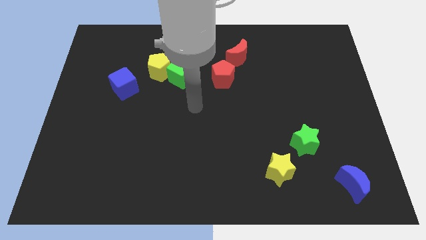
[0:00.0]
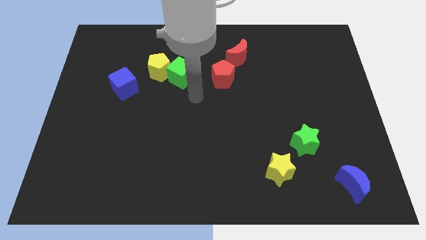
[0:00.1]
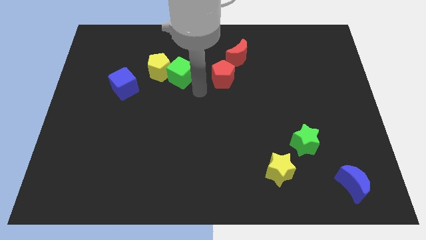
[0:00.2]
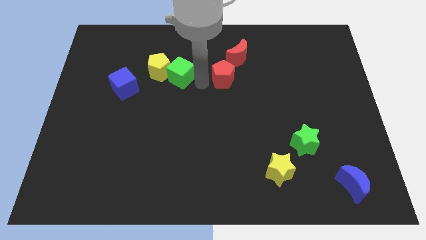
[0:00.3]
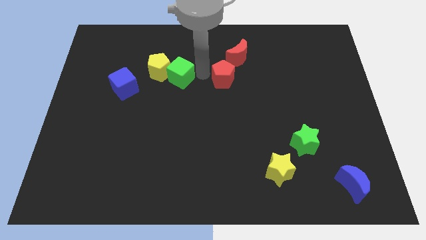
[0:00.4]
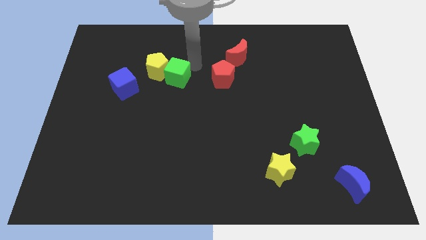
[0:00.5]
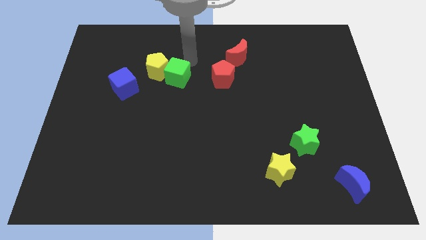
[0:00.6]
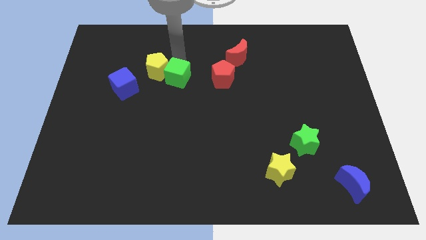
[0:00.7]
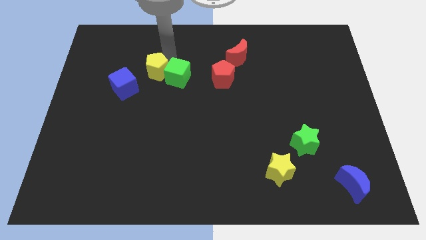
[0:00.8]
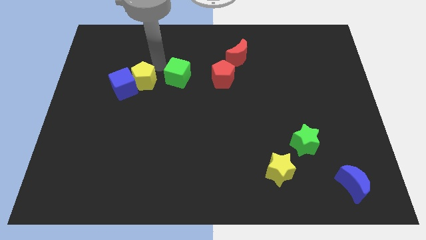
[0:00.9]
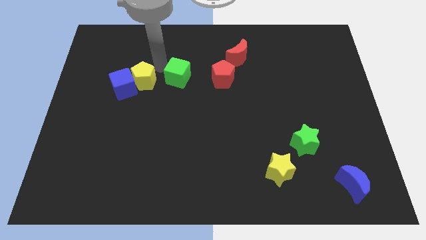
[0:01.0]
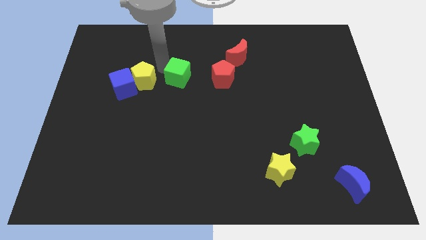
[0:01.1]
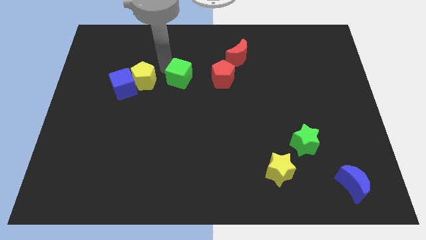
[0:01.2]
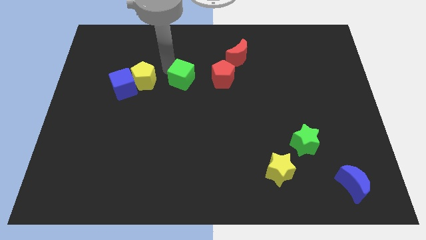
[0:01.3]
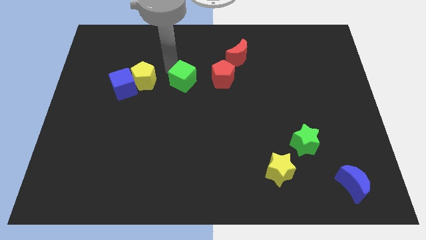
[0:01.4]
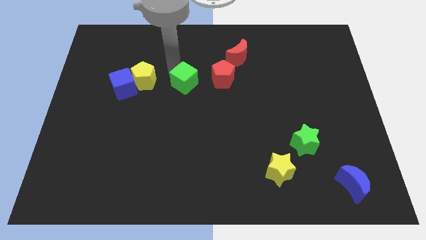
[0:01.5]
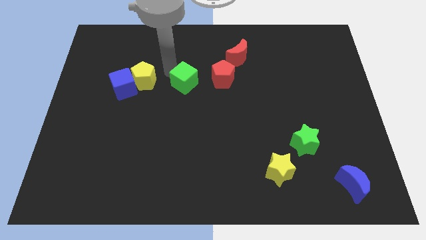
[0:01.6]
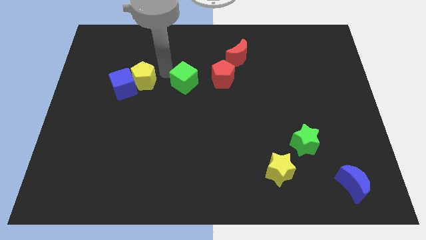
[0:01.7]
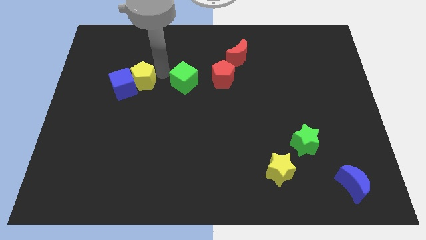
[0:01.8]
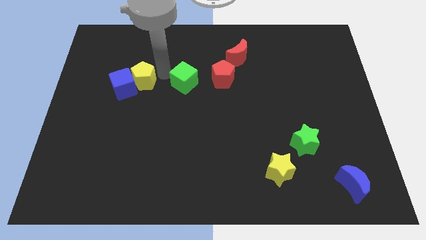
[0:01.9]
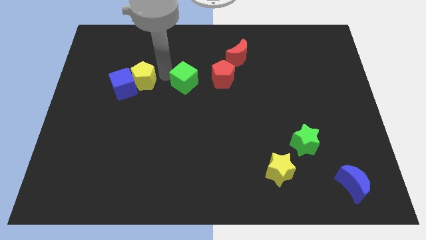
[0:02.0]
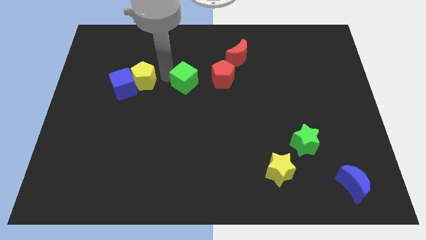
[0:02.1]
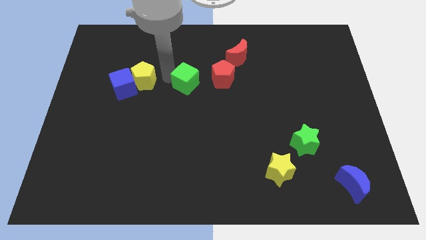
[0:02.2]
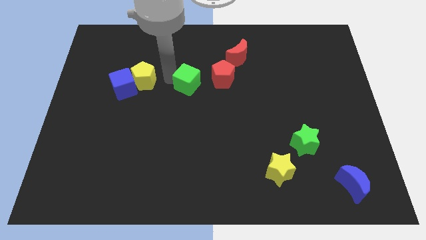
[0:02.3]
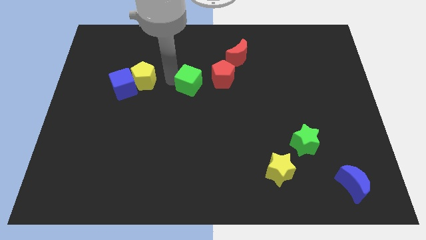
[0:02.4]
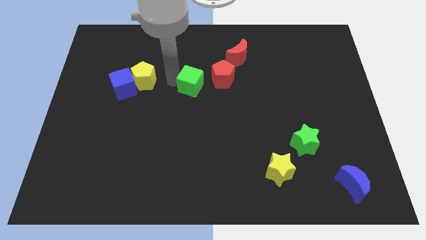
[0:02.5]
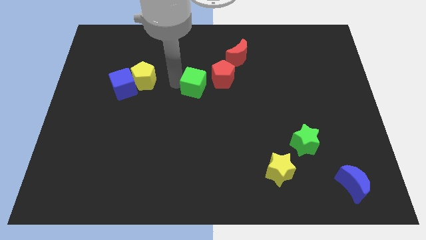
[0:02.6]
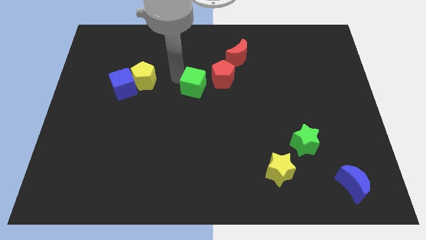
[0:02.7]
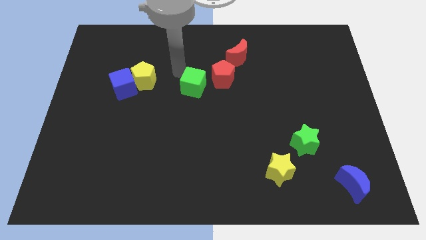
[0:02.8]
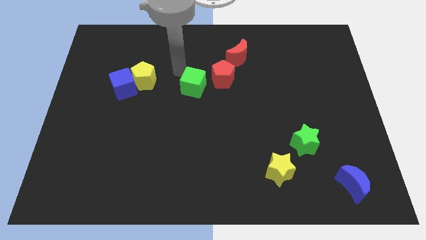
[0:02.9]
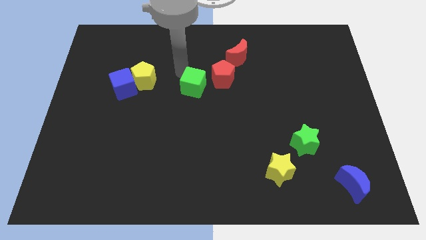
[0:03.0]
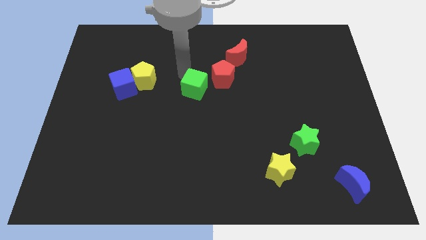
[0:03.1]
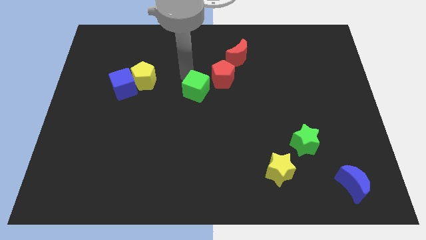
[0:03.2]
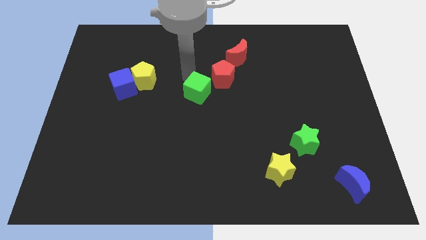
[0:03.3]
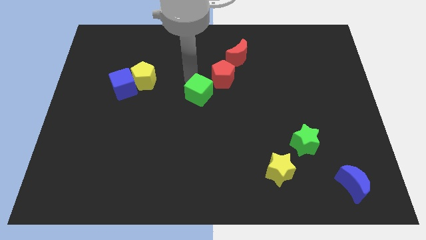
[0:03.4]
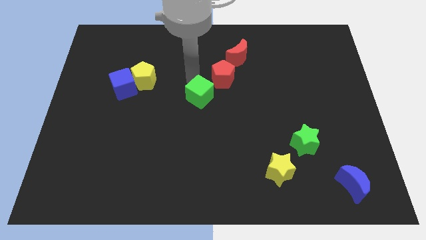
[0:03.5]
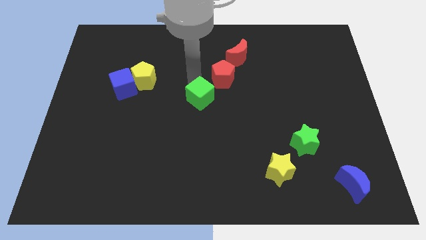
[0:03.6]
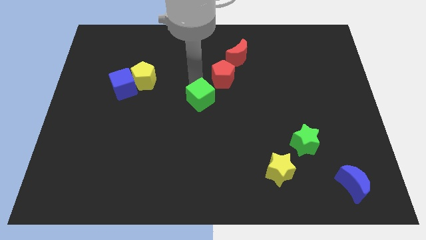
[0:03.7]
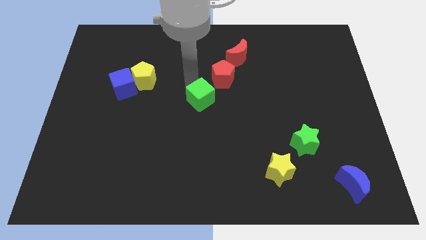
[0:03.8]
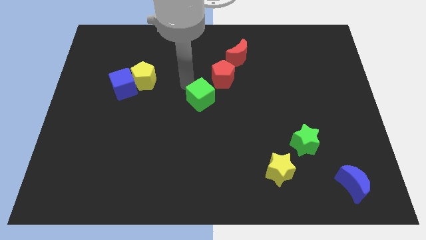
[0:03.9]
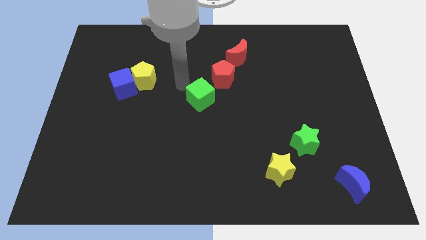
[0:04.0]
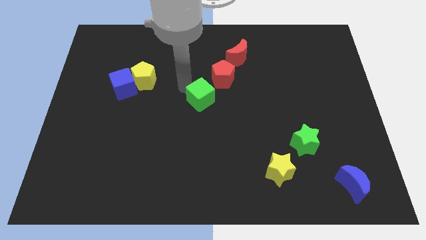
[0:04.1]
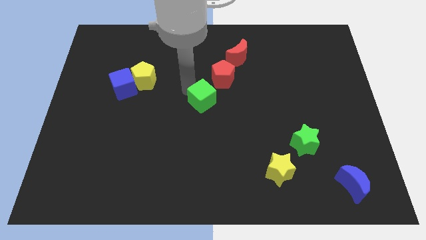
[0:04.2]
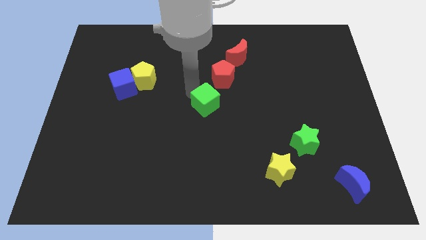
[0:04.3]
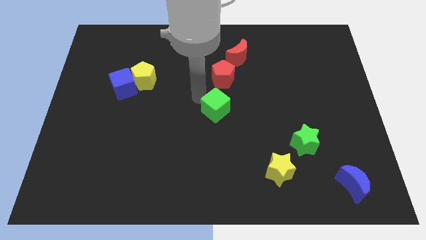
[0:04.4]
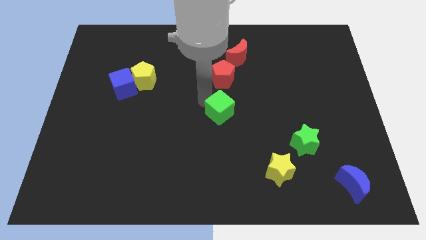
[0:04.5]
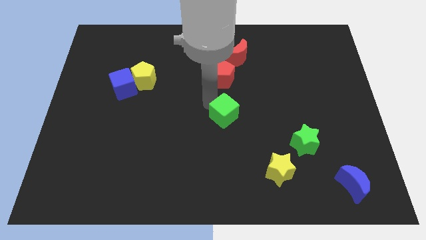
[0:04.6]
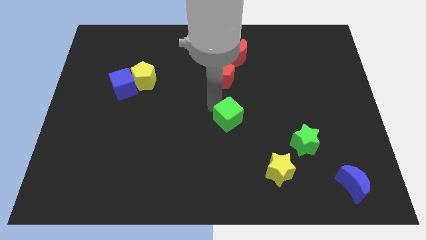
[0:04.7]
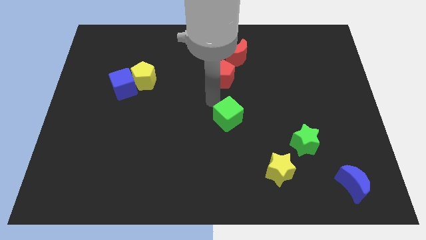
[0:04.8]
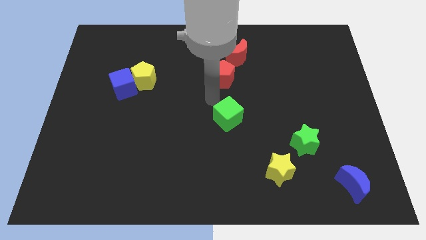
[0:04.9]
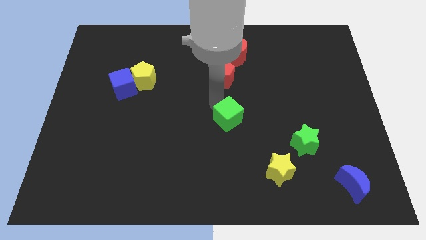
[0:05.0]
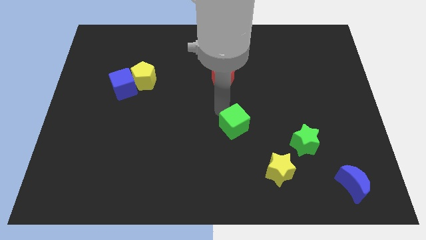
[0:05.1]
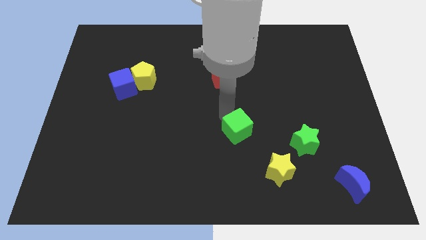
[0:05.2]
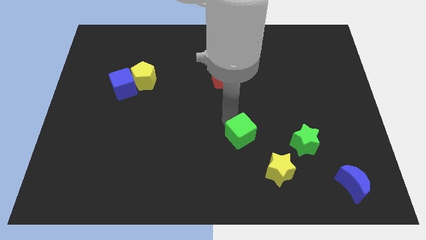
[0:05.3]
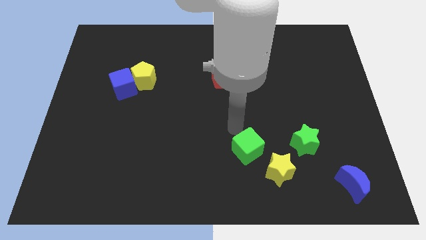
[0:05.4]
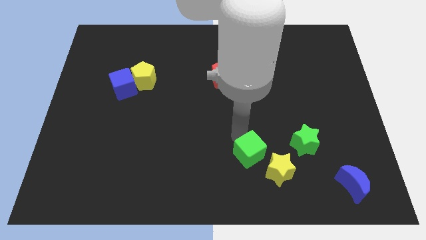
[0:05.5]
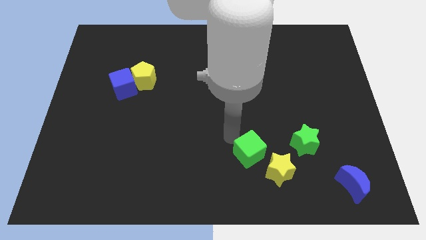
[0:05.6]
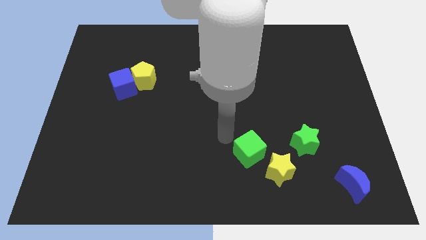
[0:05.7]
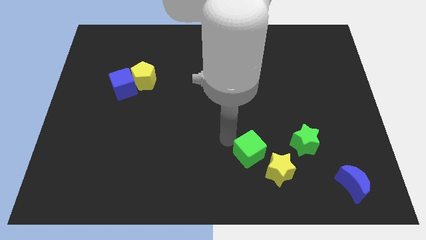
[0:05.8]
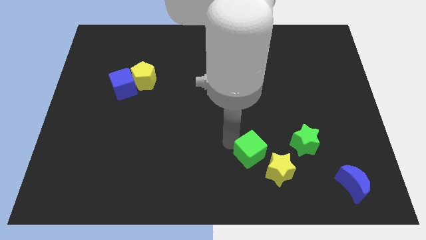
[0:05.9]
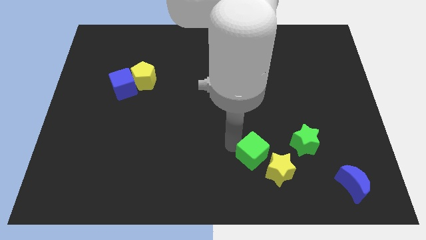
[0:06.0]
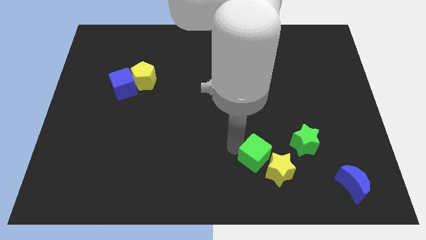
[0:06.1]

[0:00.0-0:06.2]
push the green cube towards the yellow star

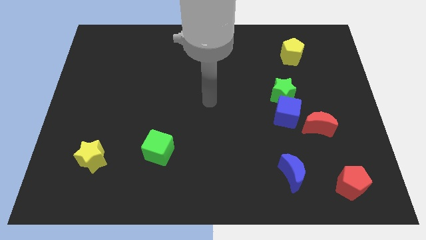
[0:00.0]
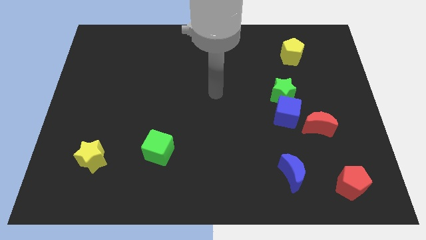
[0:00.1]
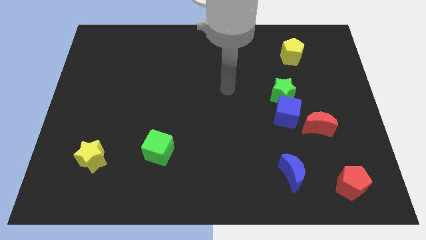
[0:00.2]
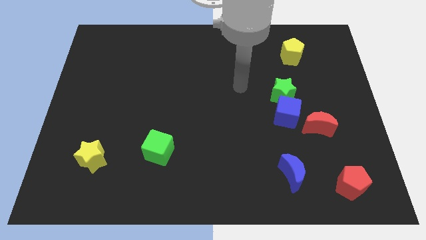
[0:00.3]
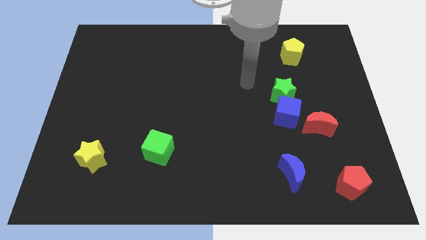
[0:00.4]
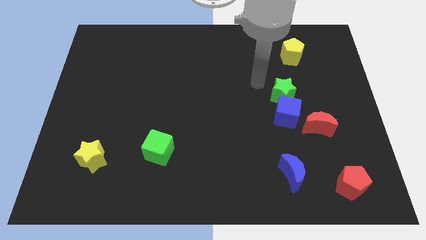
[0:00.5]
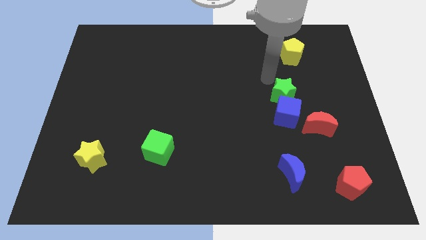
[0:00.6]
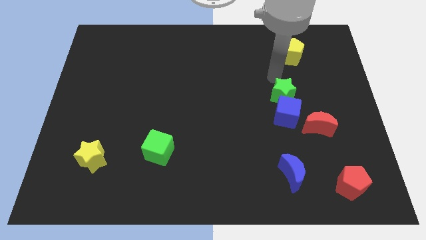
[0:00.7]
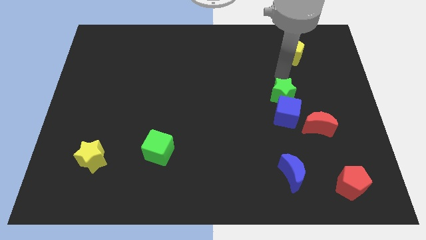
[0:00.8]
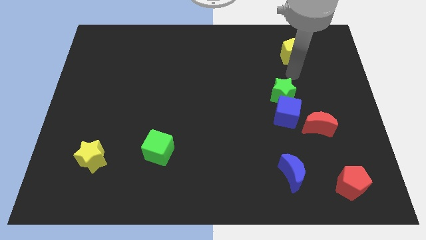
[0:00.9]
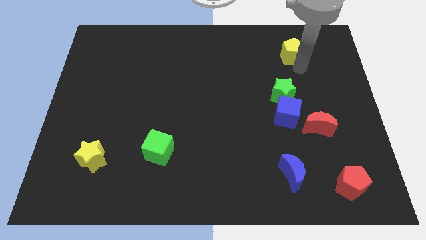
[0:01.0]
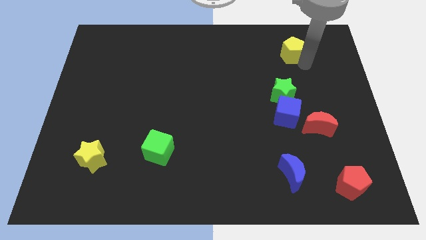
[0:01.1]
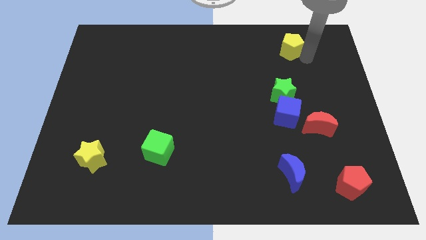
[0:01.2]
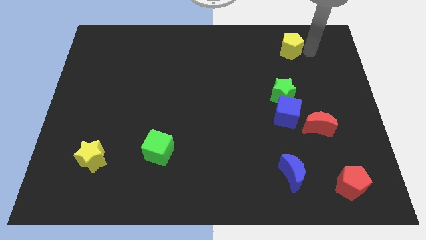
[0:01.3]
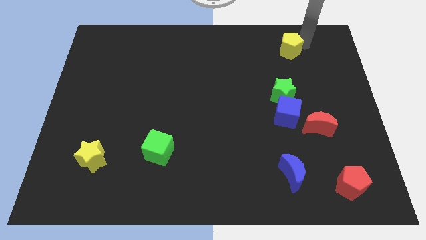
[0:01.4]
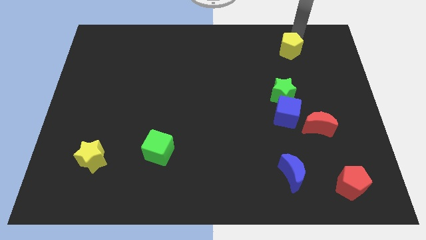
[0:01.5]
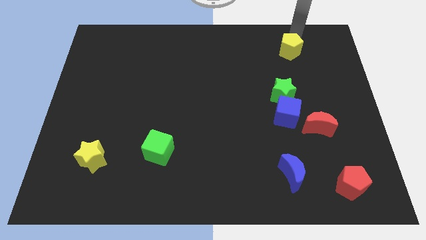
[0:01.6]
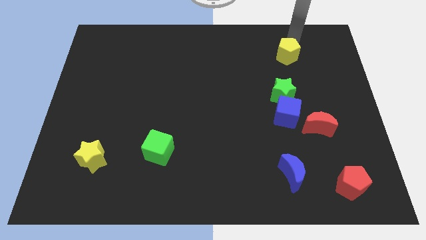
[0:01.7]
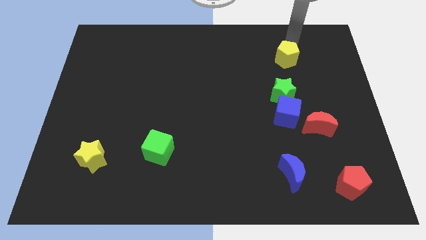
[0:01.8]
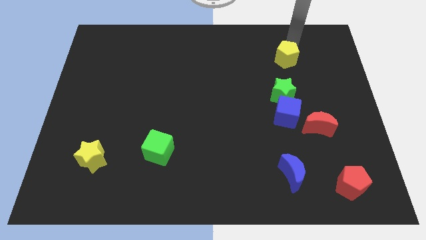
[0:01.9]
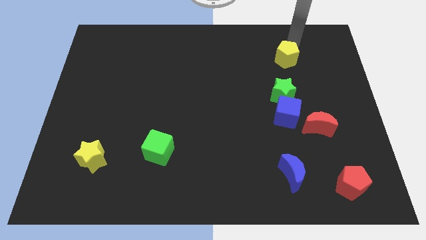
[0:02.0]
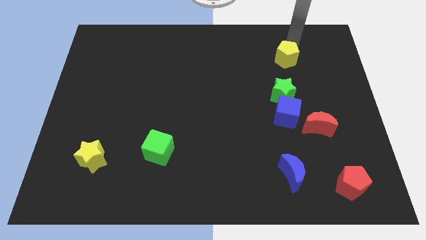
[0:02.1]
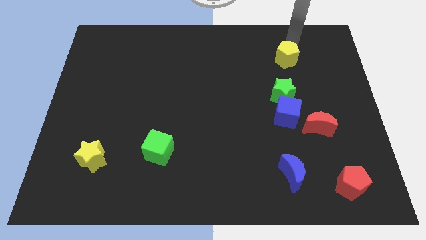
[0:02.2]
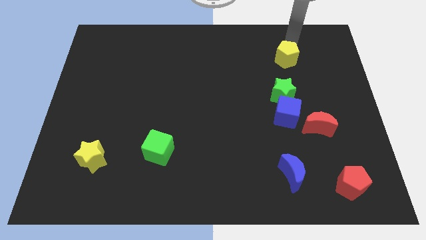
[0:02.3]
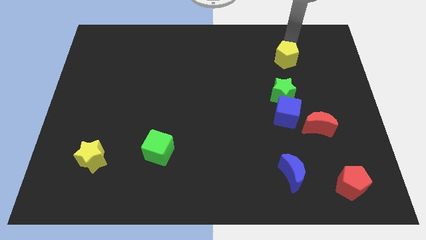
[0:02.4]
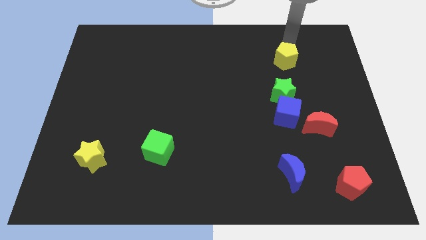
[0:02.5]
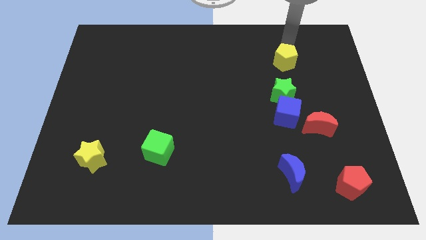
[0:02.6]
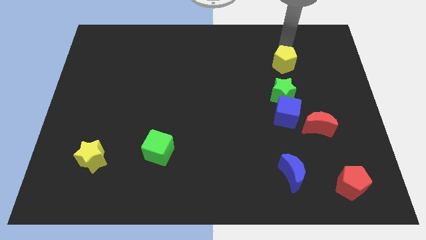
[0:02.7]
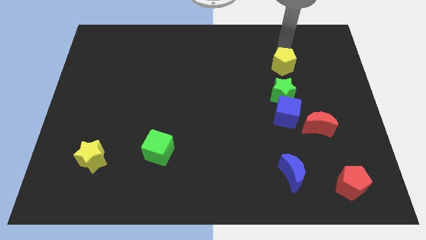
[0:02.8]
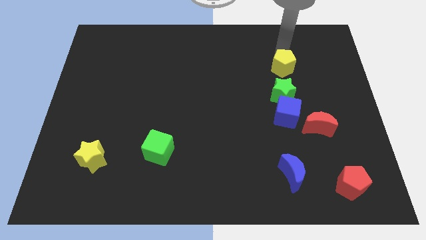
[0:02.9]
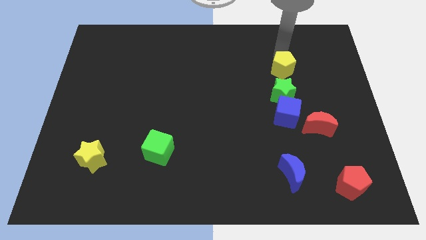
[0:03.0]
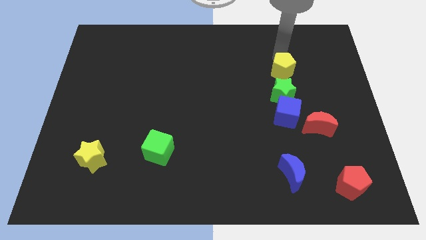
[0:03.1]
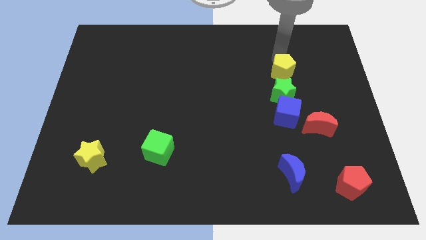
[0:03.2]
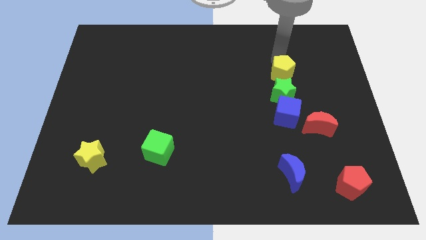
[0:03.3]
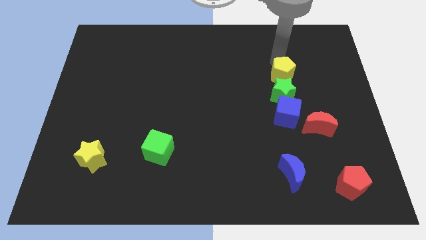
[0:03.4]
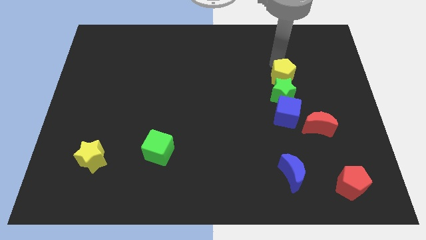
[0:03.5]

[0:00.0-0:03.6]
push the yellow pentagon towards the green star
